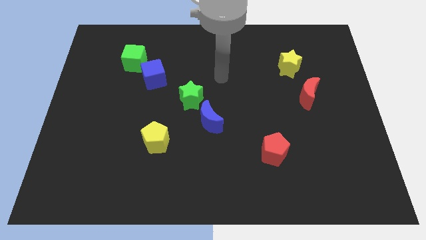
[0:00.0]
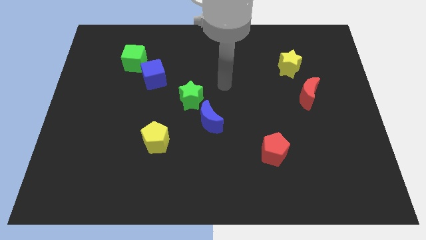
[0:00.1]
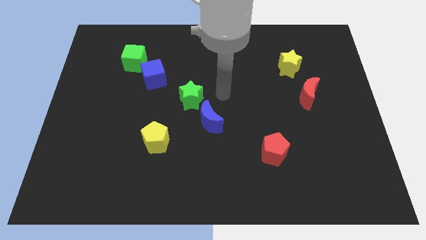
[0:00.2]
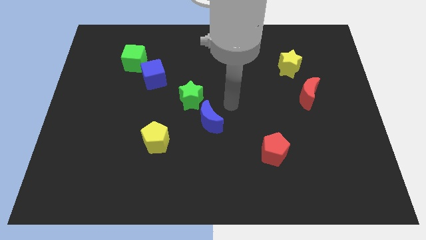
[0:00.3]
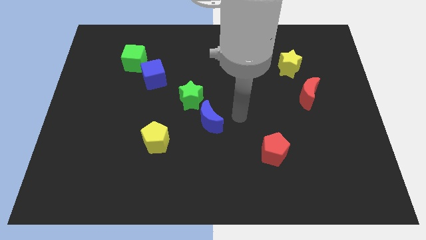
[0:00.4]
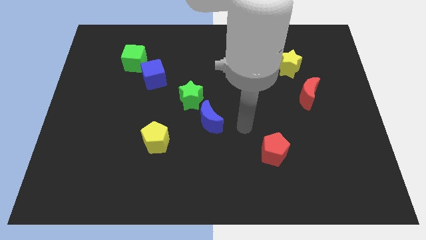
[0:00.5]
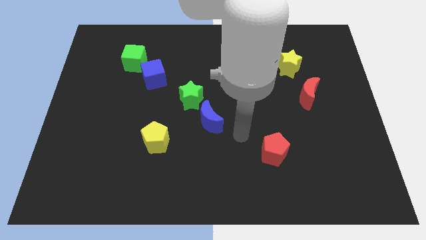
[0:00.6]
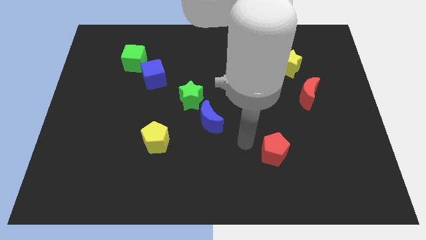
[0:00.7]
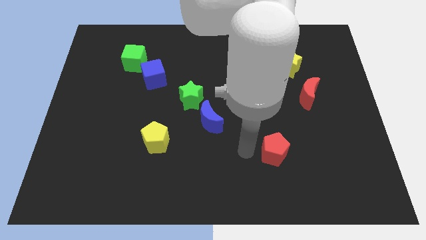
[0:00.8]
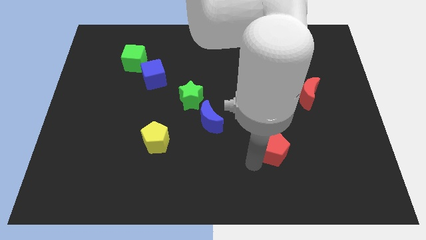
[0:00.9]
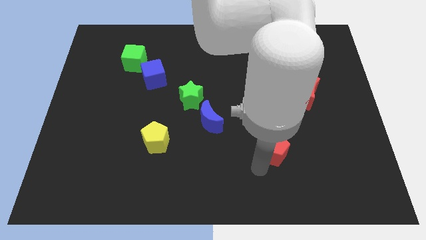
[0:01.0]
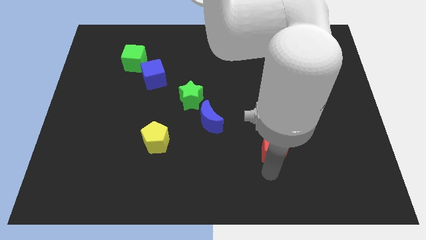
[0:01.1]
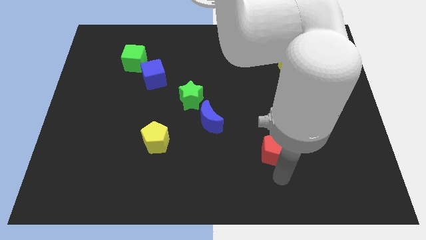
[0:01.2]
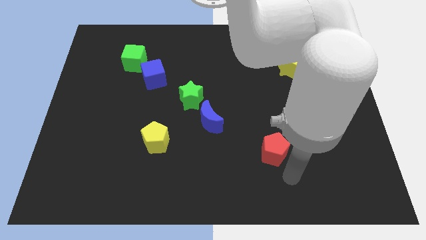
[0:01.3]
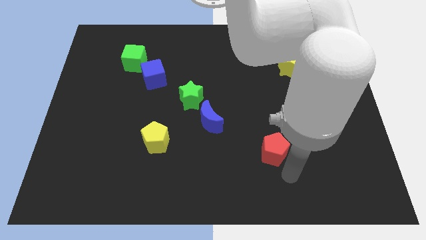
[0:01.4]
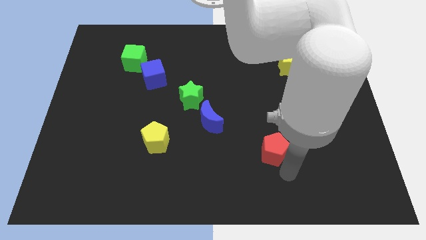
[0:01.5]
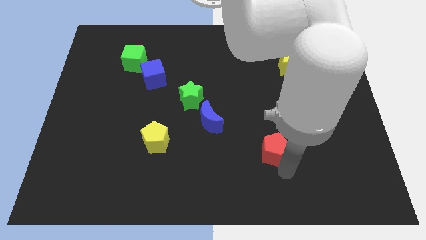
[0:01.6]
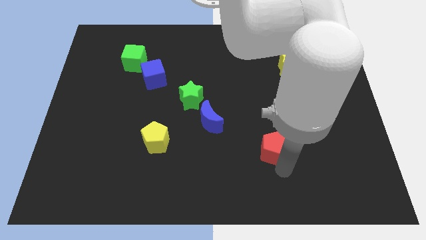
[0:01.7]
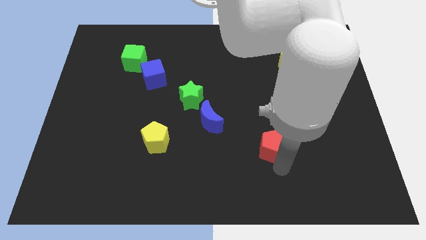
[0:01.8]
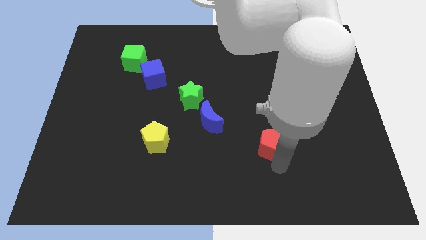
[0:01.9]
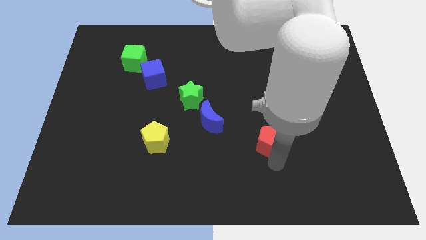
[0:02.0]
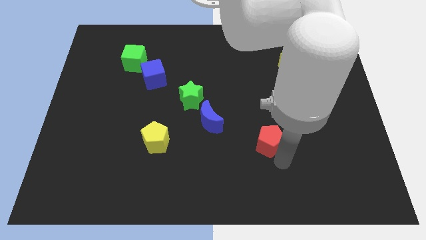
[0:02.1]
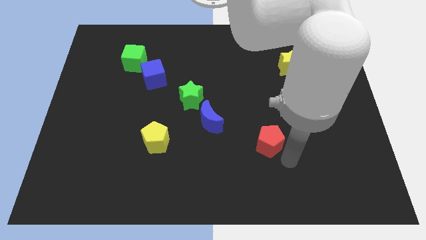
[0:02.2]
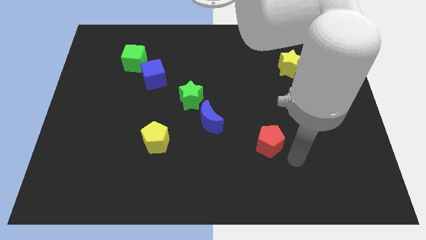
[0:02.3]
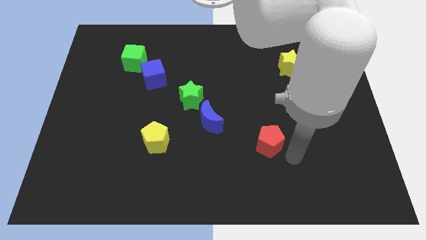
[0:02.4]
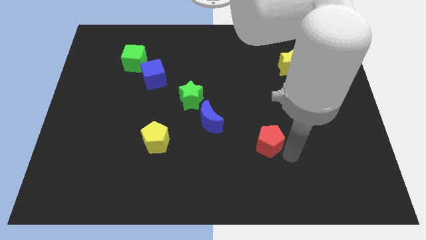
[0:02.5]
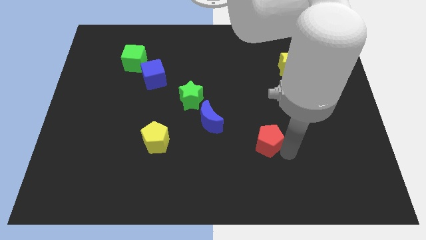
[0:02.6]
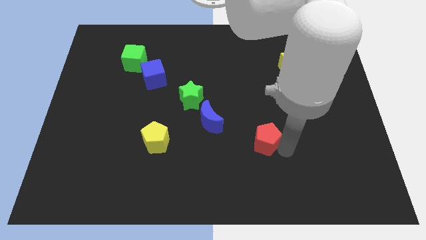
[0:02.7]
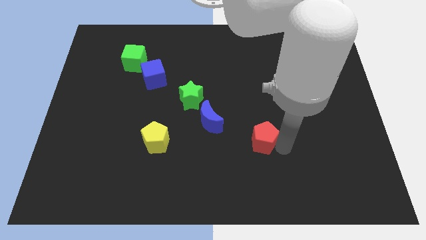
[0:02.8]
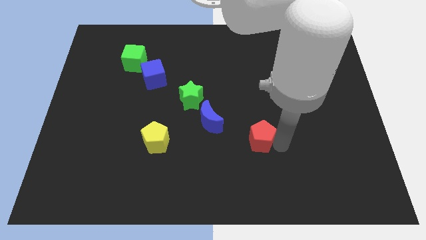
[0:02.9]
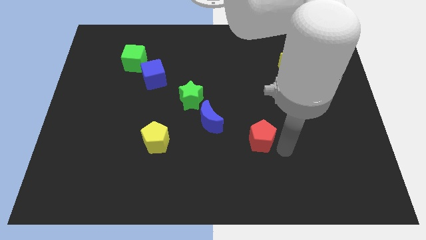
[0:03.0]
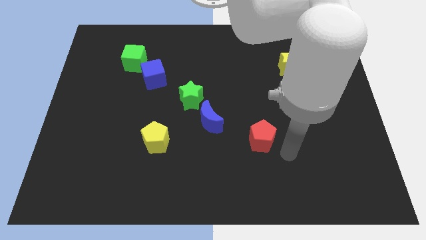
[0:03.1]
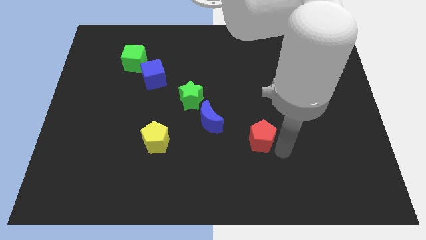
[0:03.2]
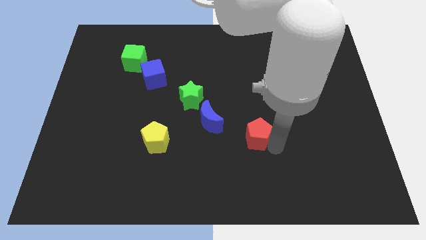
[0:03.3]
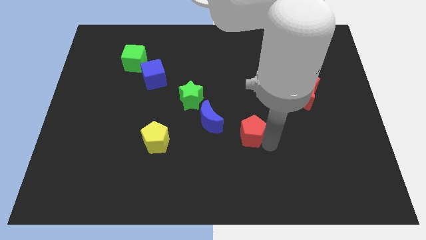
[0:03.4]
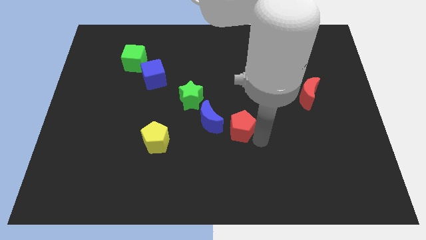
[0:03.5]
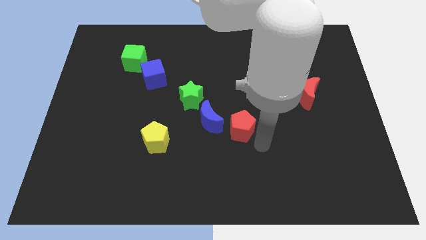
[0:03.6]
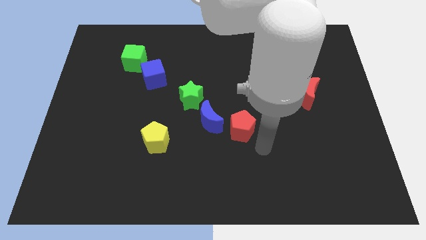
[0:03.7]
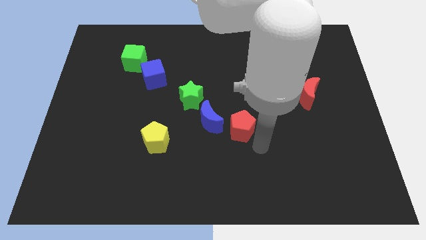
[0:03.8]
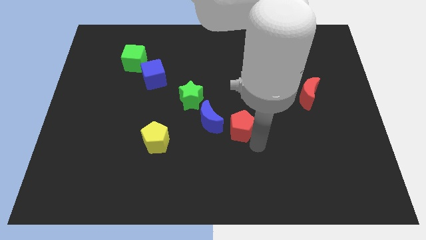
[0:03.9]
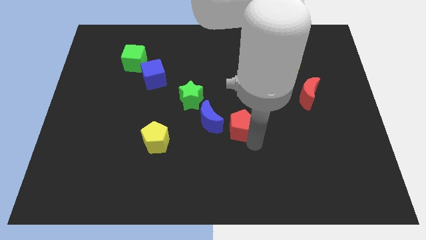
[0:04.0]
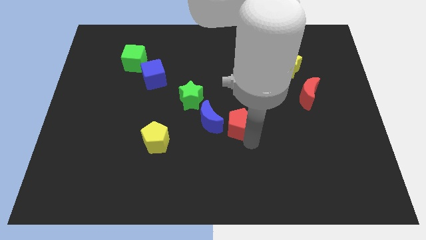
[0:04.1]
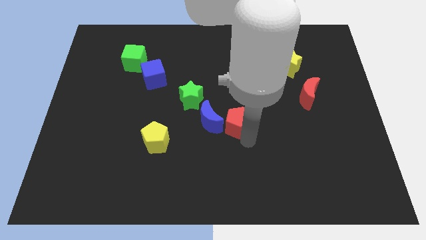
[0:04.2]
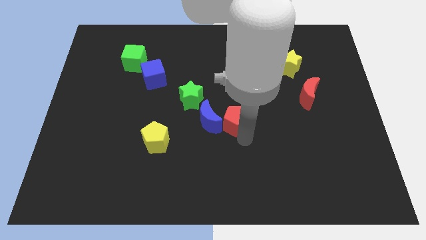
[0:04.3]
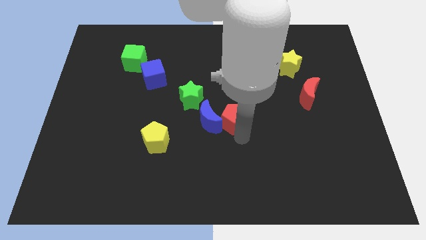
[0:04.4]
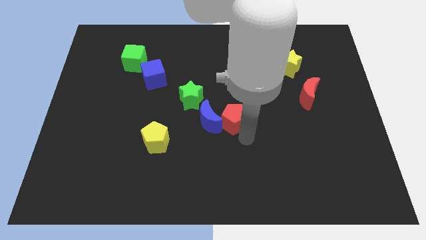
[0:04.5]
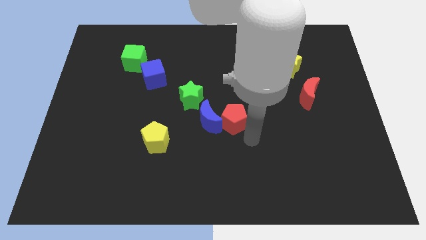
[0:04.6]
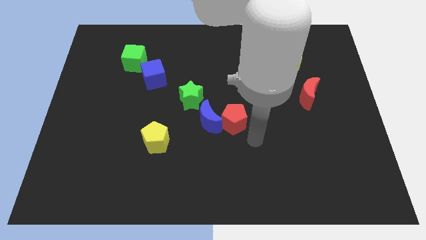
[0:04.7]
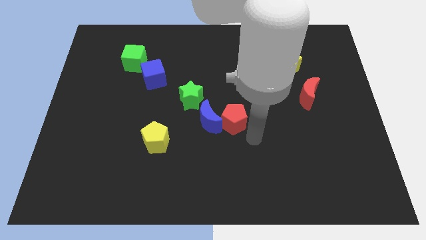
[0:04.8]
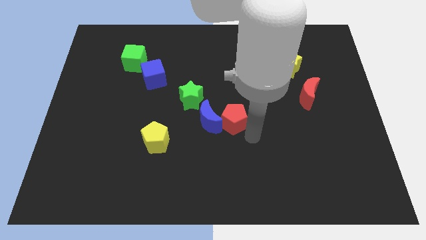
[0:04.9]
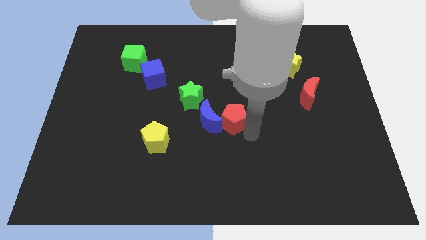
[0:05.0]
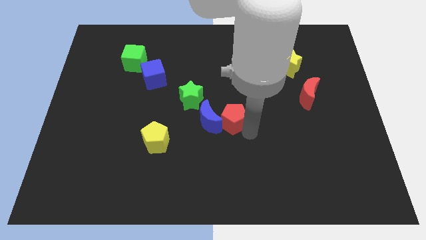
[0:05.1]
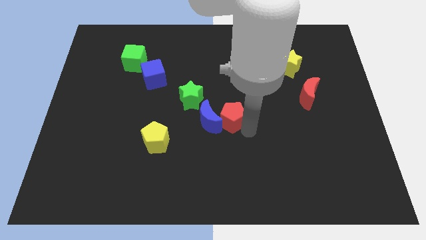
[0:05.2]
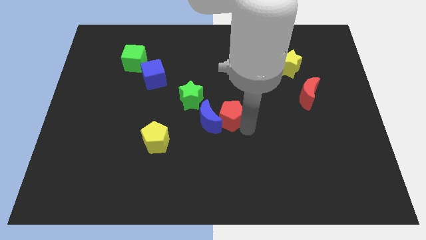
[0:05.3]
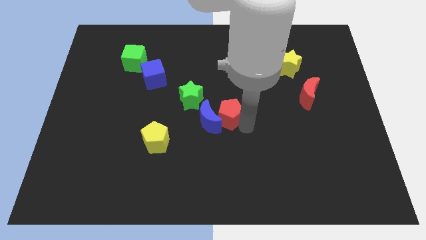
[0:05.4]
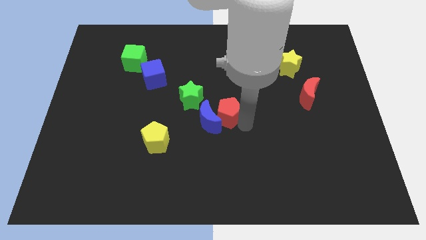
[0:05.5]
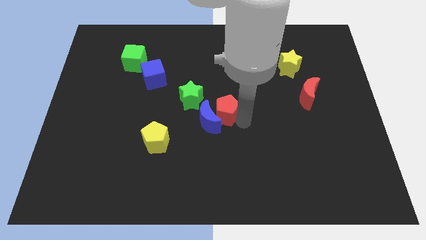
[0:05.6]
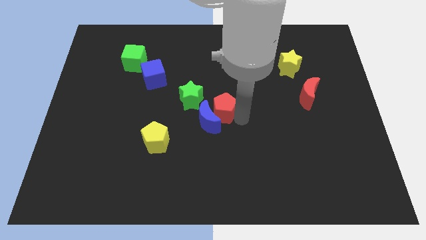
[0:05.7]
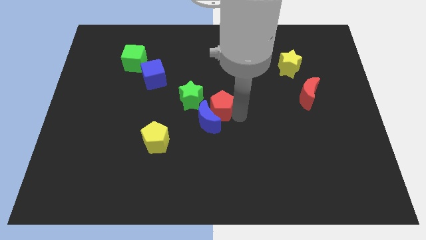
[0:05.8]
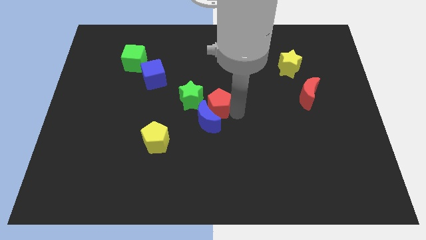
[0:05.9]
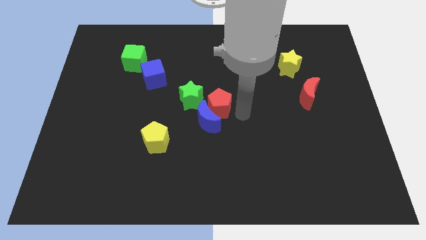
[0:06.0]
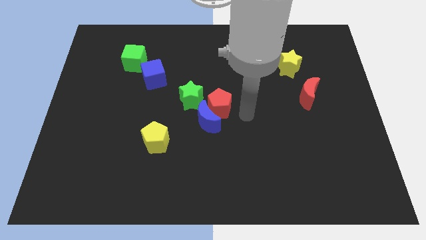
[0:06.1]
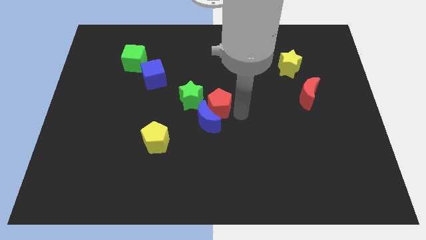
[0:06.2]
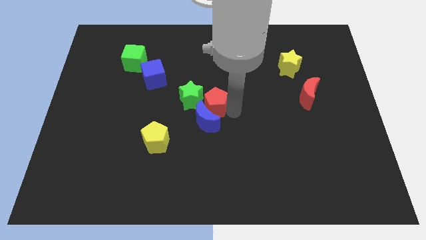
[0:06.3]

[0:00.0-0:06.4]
push the red pentagon close to the green star
